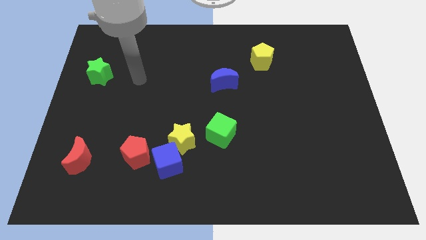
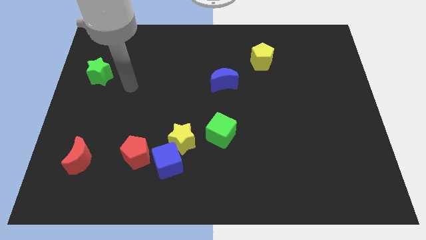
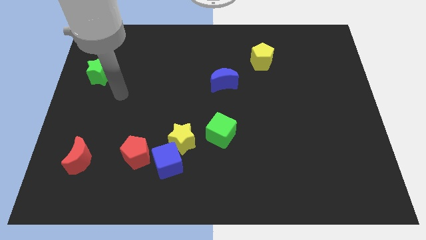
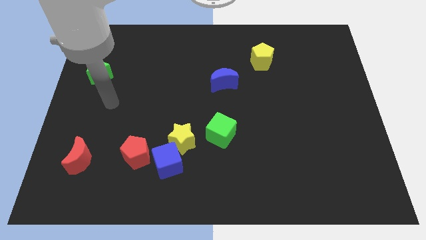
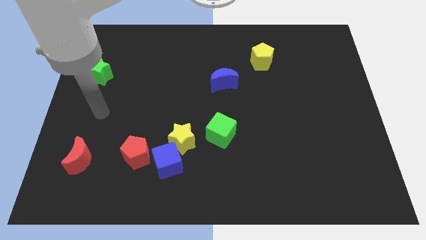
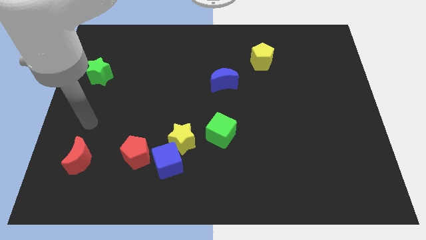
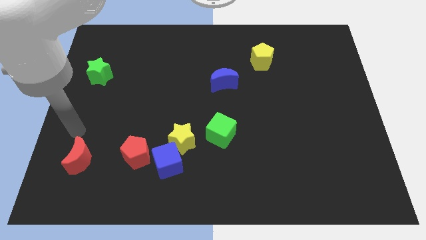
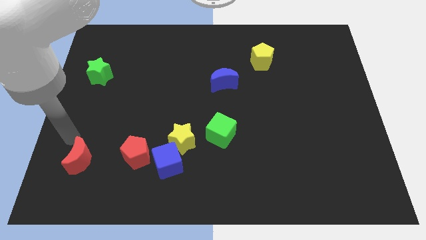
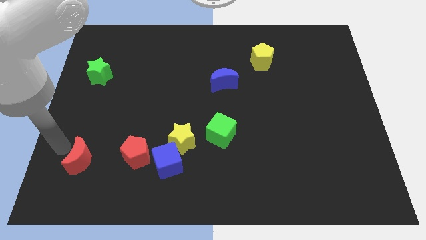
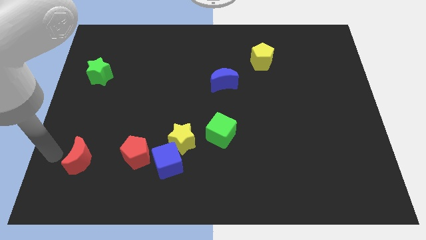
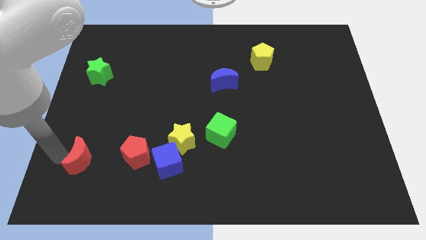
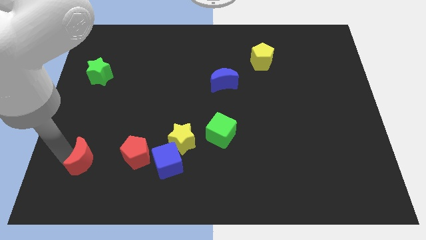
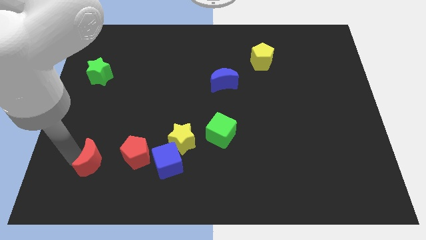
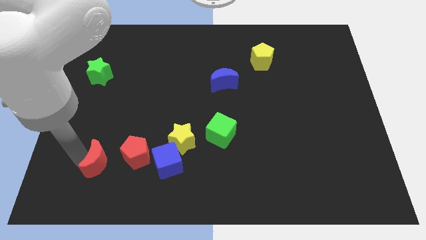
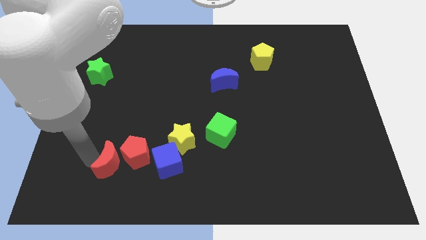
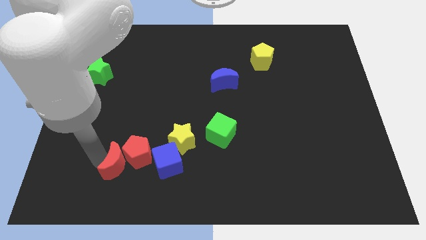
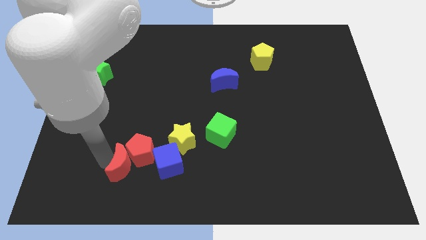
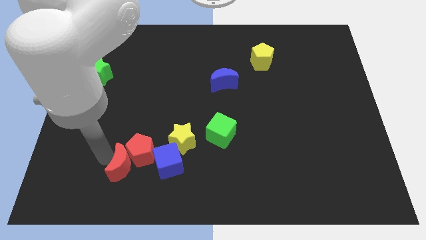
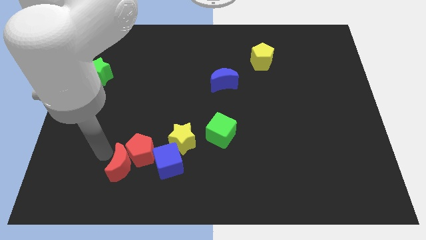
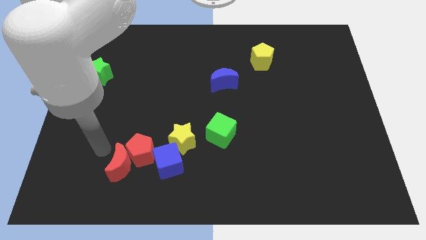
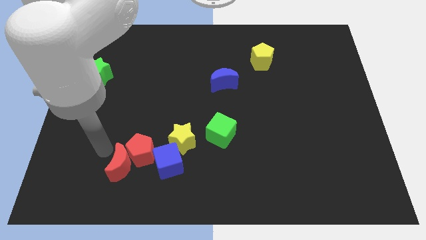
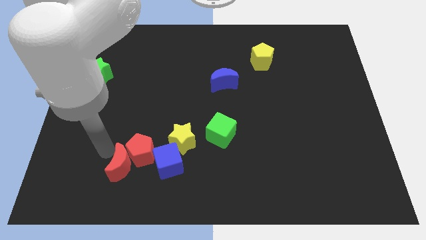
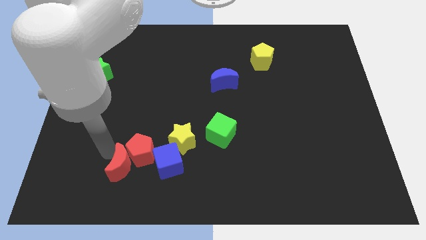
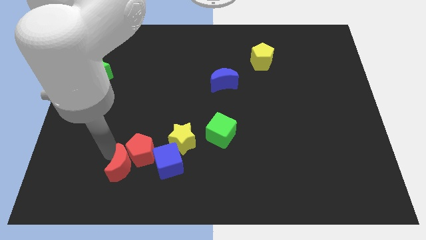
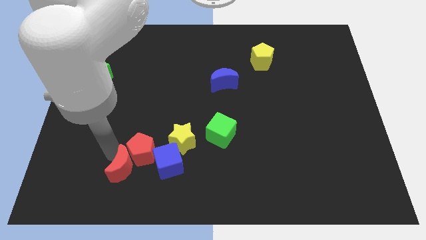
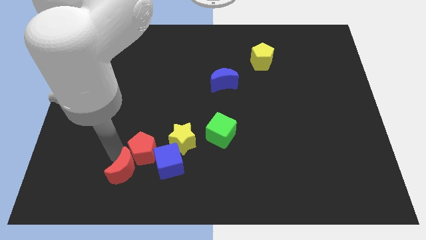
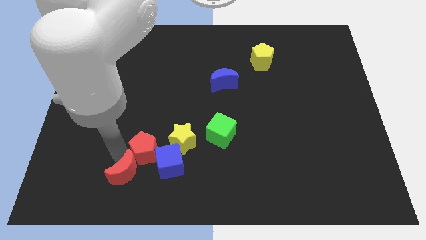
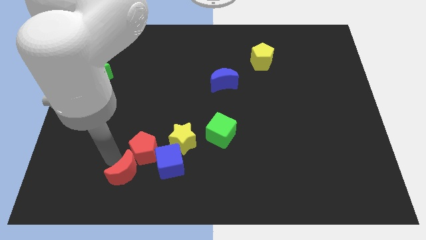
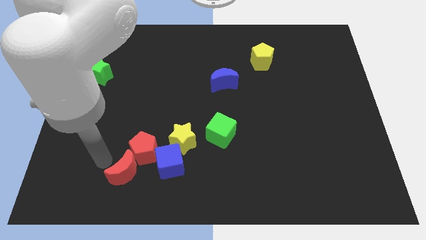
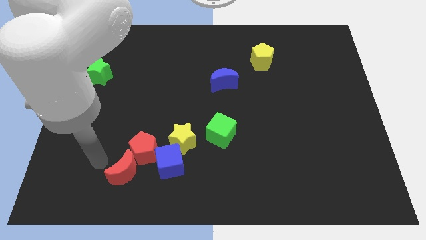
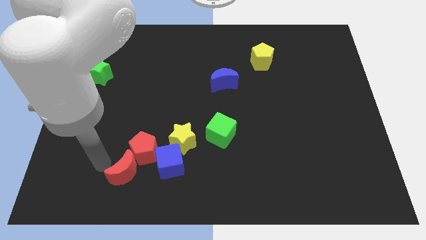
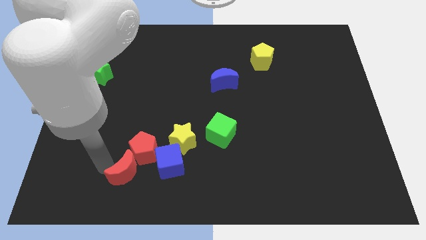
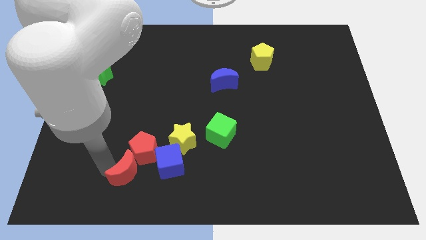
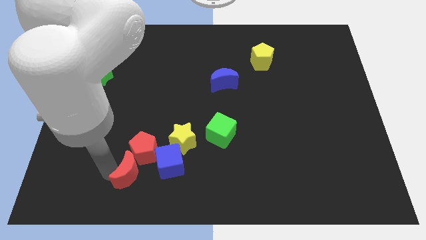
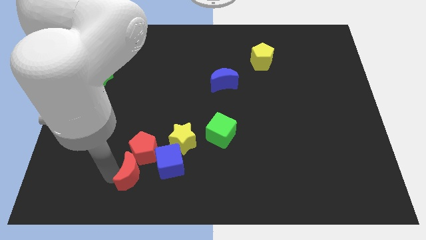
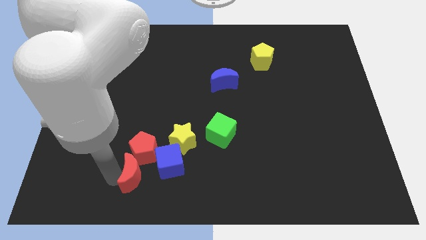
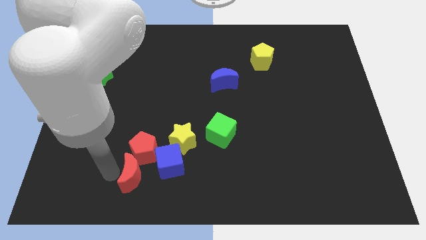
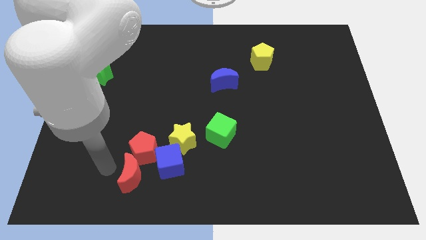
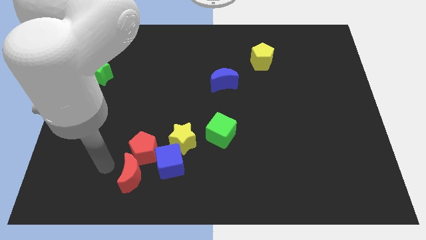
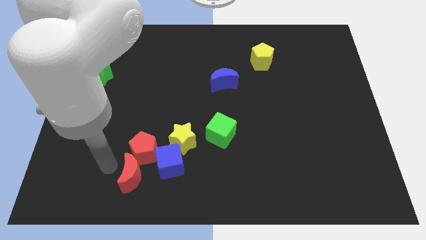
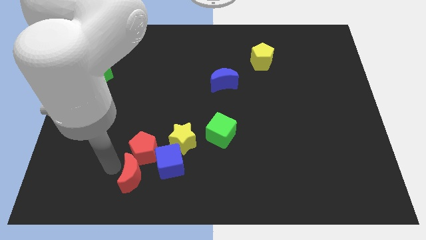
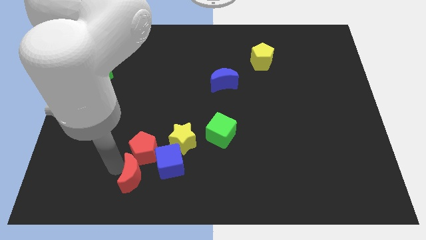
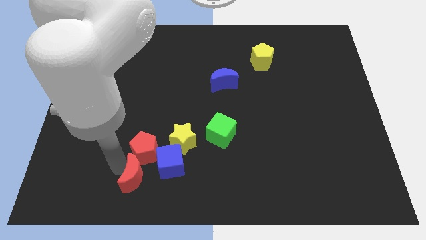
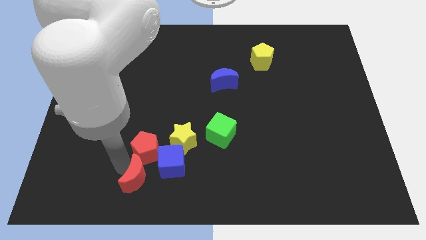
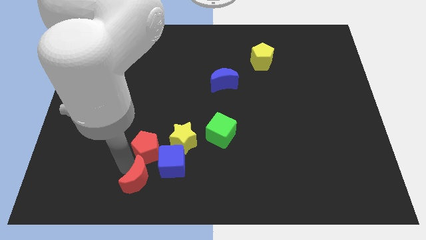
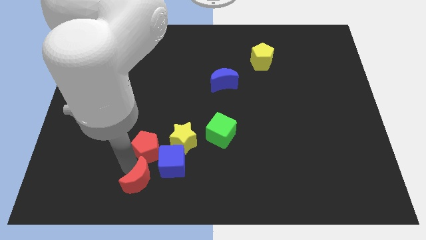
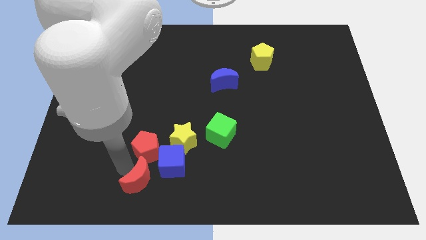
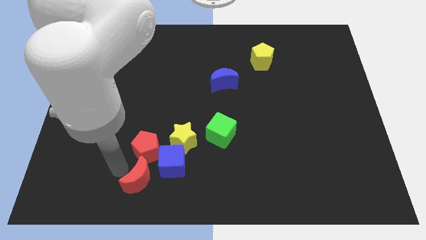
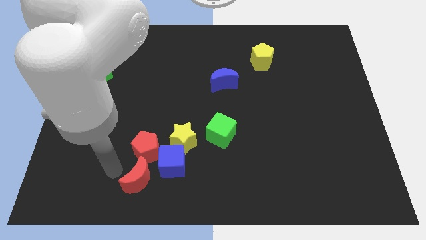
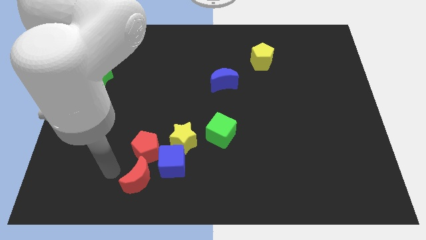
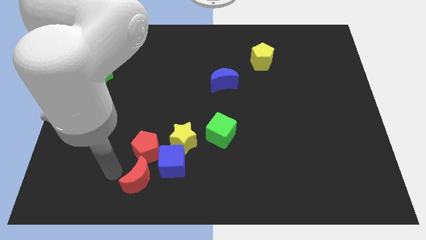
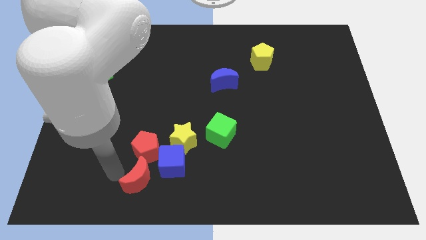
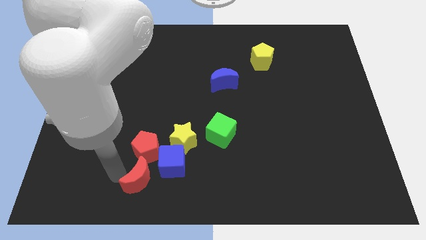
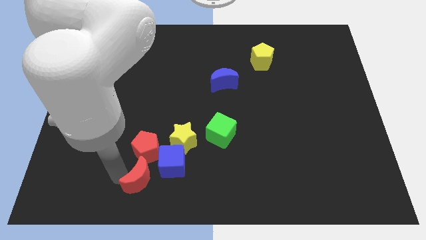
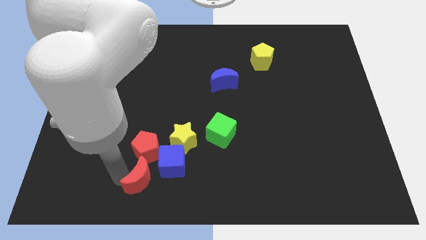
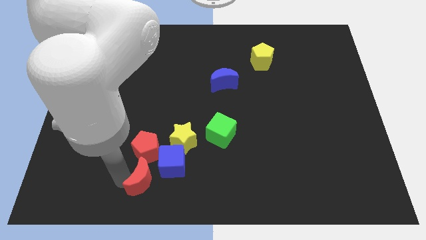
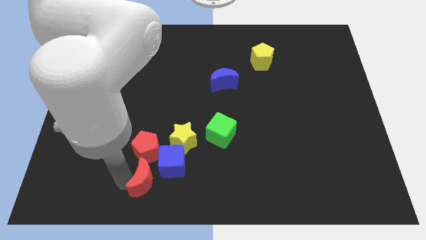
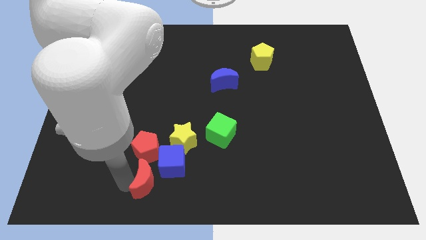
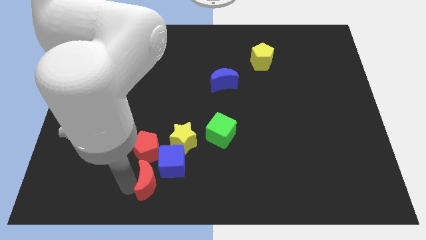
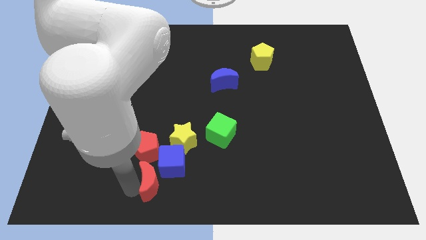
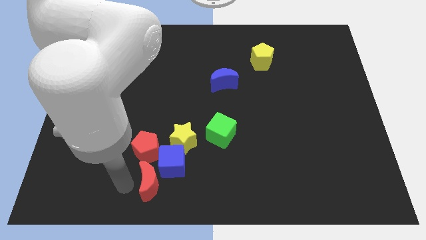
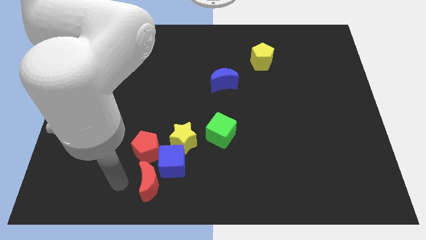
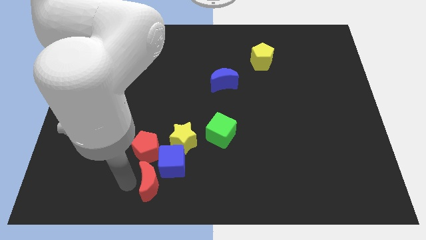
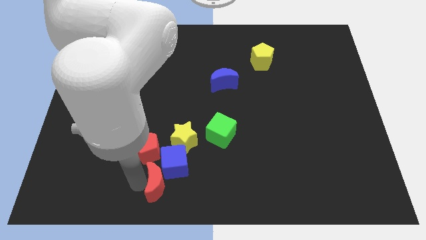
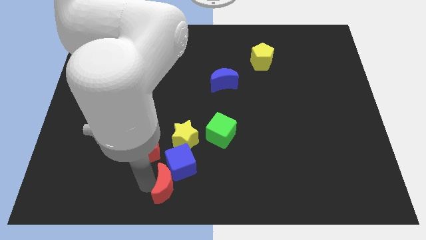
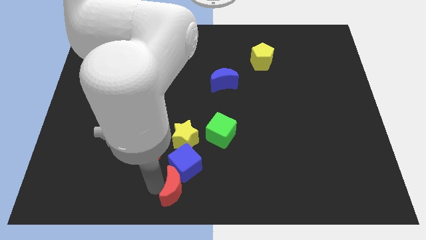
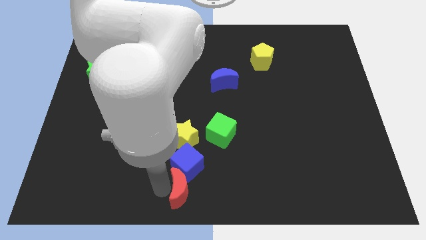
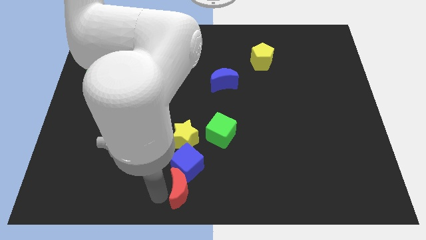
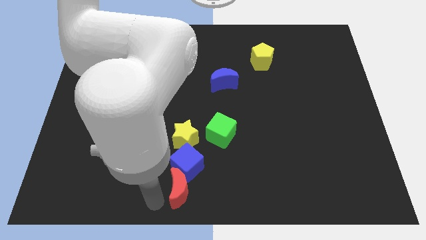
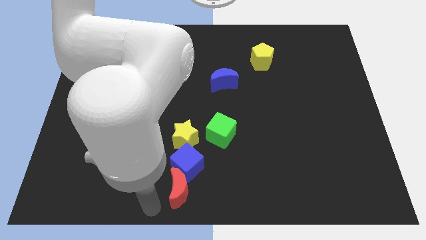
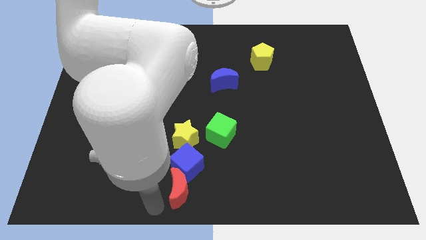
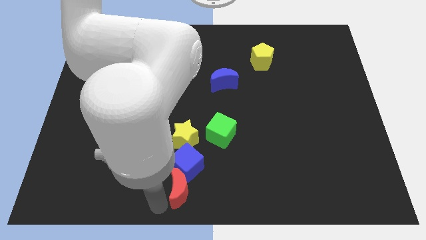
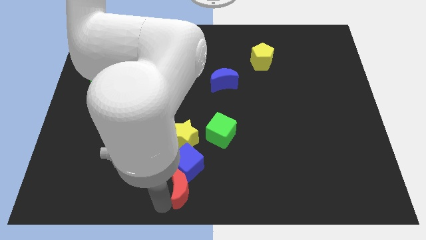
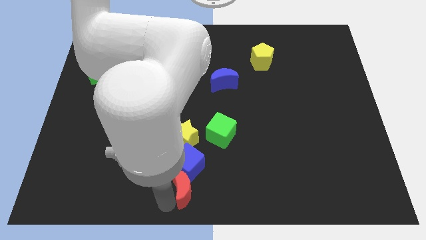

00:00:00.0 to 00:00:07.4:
move the red moon right

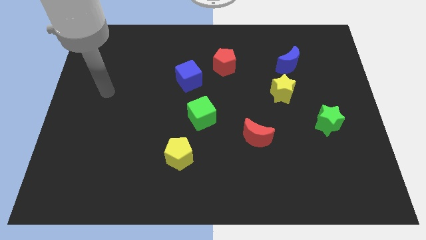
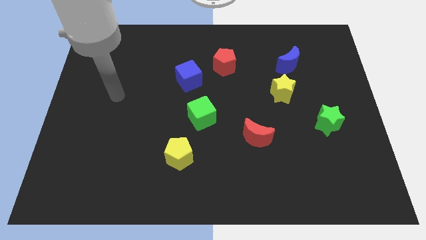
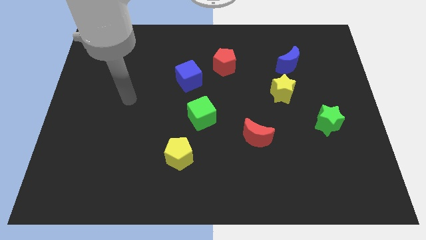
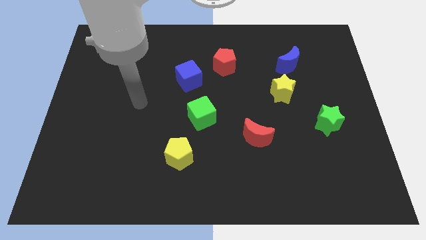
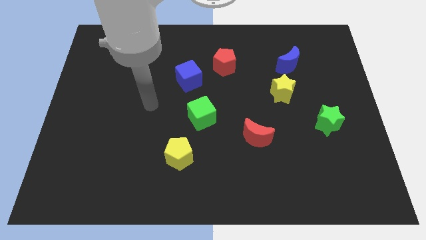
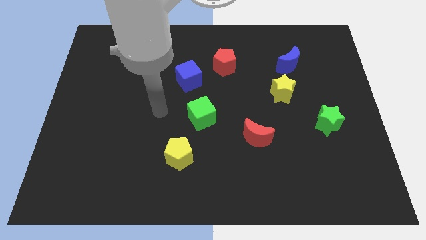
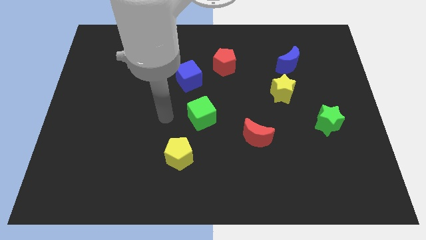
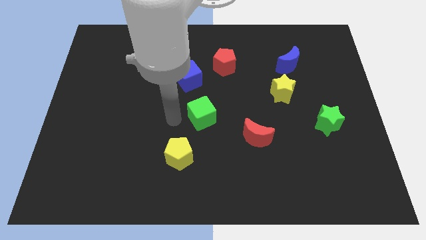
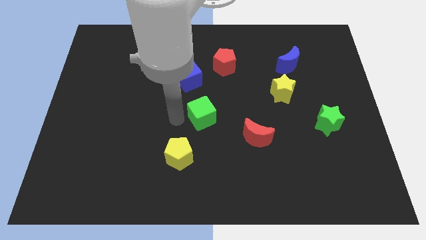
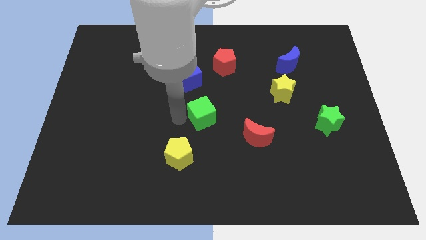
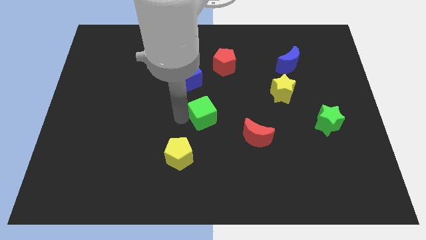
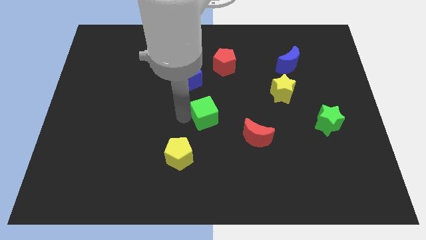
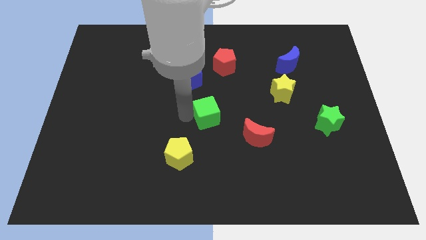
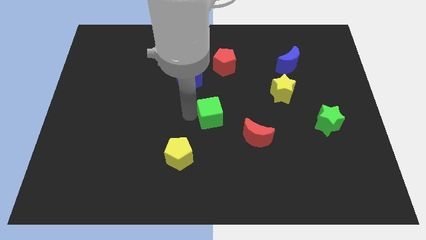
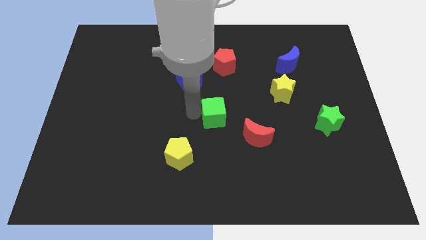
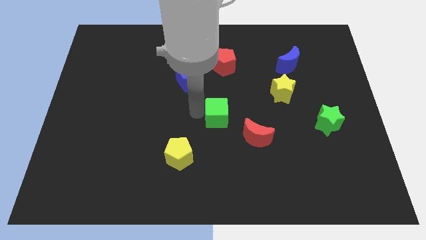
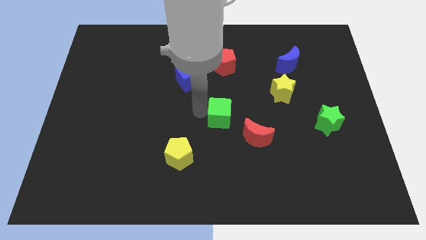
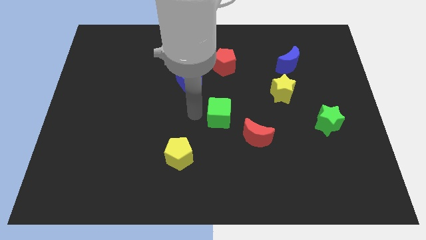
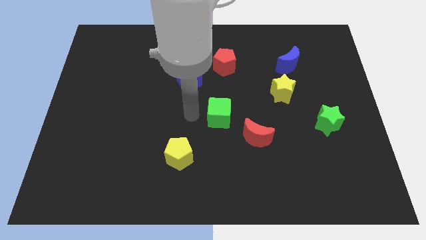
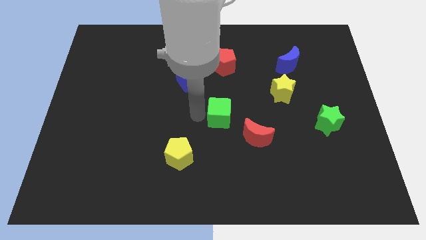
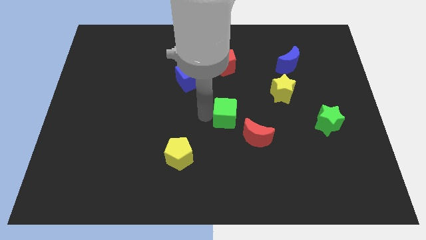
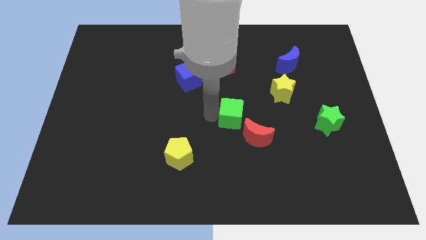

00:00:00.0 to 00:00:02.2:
push the green cube a little bit to the right
